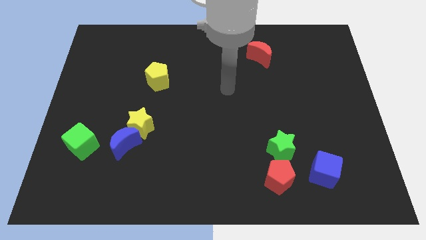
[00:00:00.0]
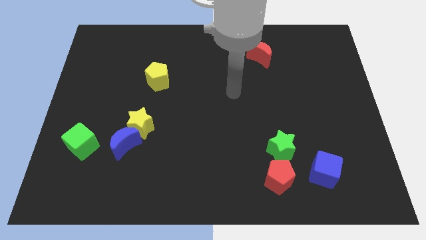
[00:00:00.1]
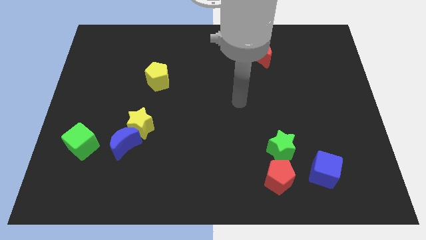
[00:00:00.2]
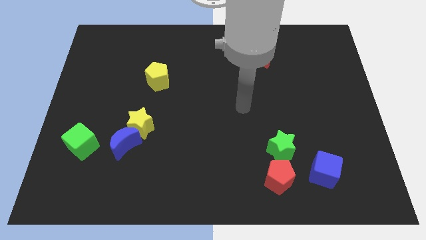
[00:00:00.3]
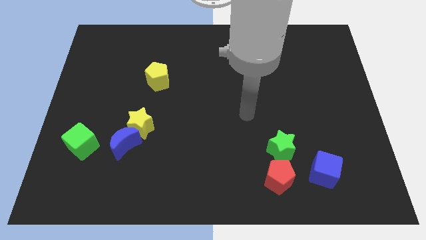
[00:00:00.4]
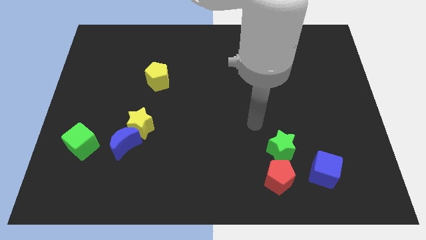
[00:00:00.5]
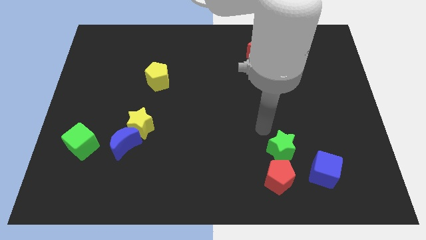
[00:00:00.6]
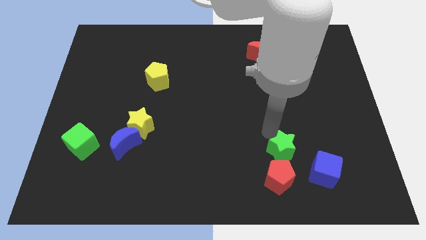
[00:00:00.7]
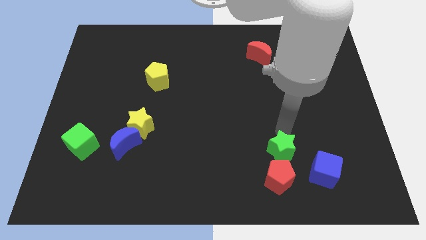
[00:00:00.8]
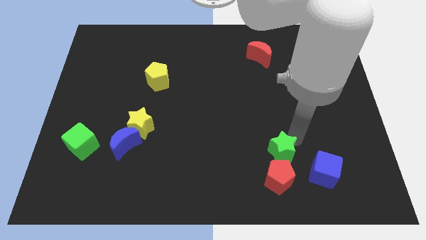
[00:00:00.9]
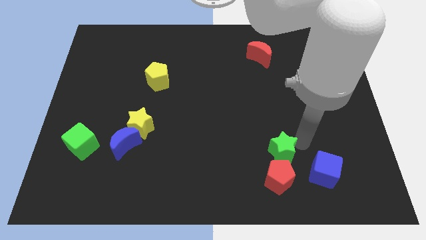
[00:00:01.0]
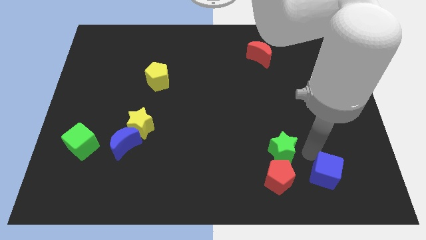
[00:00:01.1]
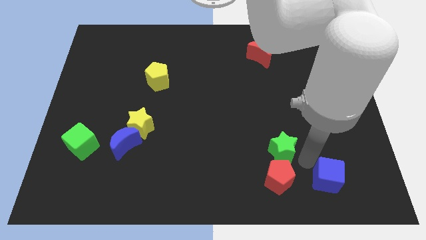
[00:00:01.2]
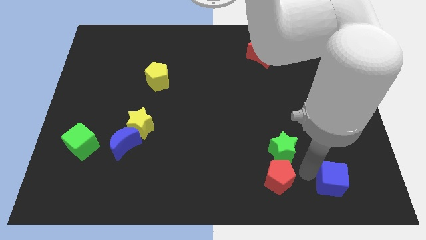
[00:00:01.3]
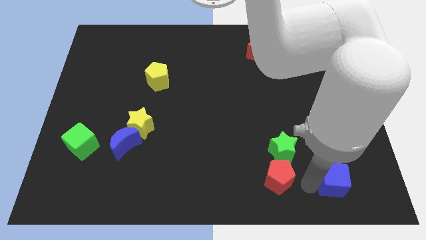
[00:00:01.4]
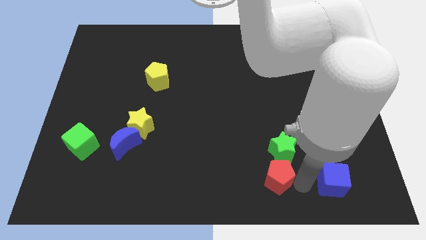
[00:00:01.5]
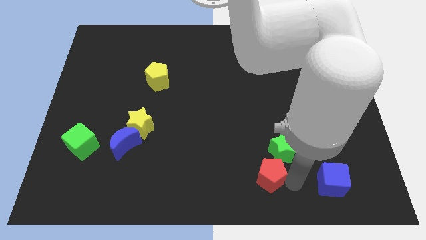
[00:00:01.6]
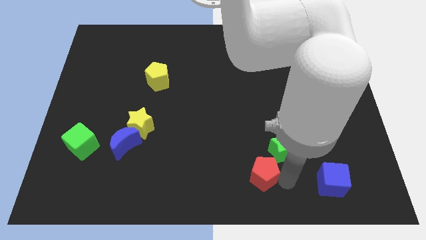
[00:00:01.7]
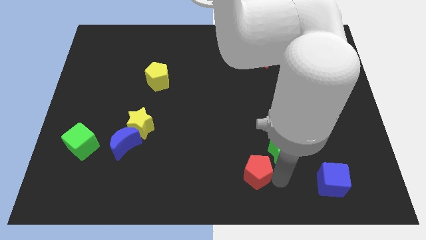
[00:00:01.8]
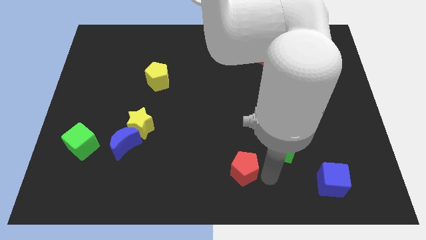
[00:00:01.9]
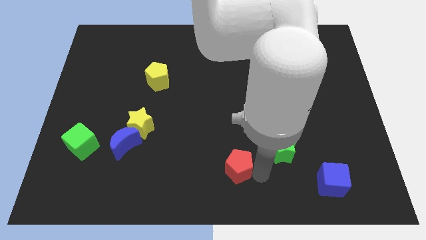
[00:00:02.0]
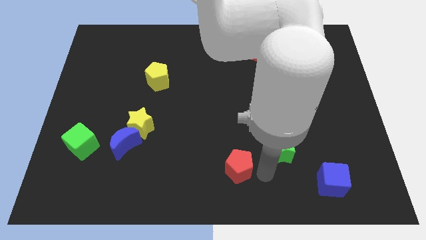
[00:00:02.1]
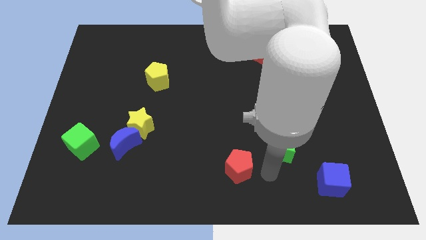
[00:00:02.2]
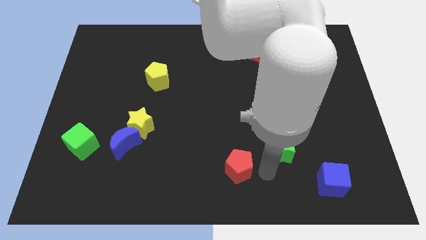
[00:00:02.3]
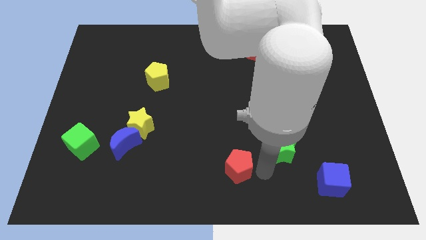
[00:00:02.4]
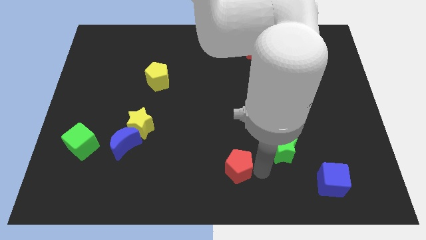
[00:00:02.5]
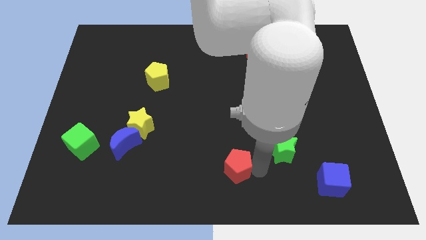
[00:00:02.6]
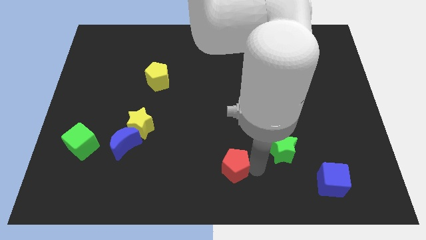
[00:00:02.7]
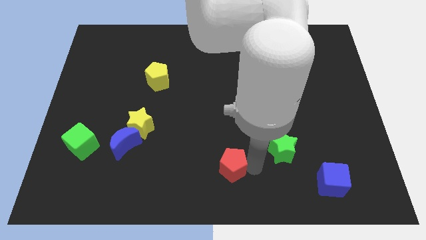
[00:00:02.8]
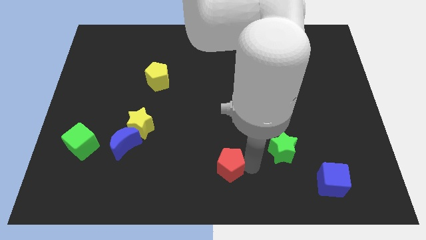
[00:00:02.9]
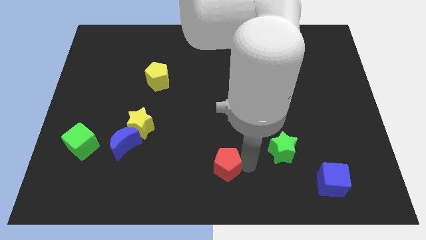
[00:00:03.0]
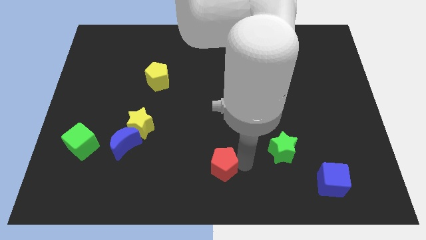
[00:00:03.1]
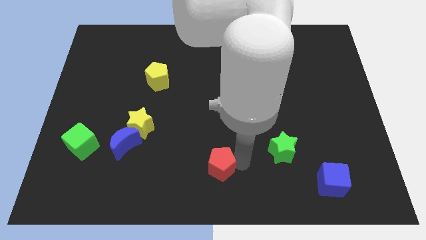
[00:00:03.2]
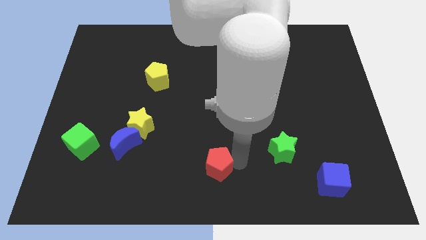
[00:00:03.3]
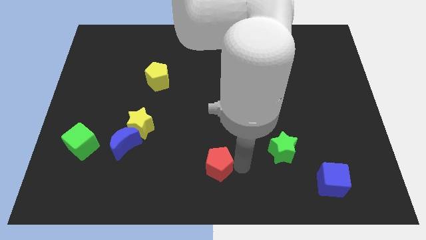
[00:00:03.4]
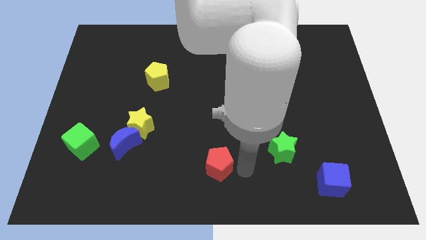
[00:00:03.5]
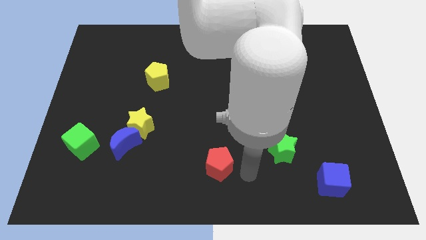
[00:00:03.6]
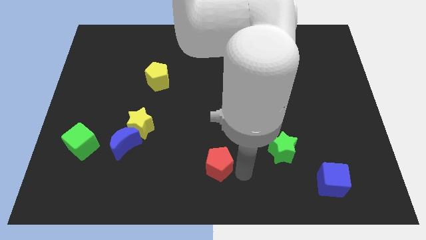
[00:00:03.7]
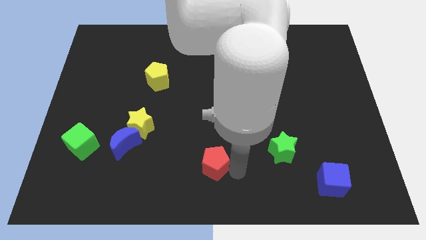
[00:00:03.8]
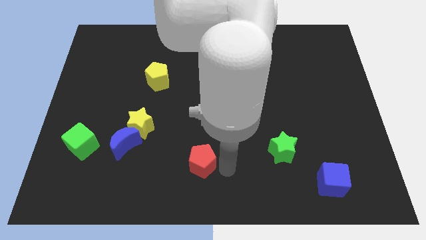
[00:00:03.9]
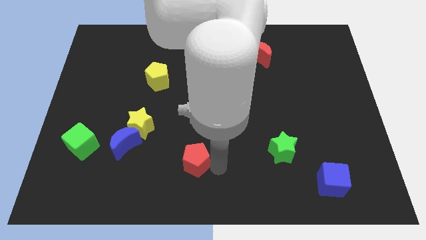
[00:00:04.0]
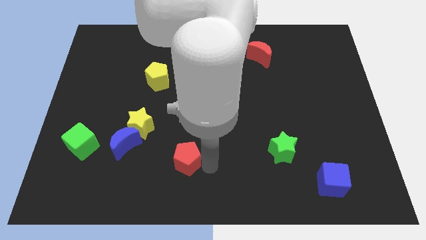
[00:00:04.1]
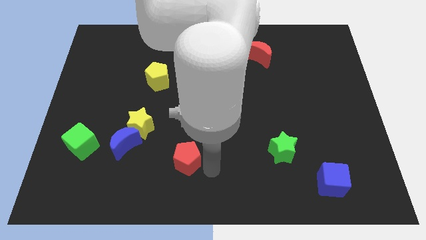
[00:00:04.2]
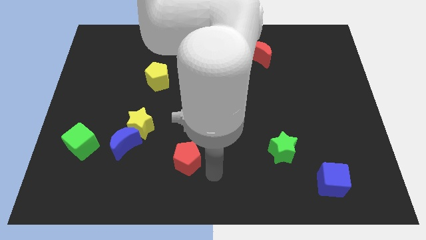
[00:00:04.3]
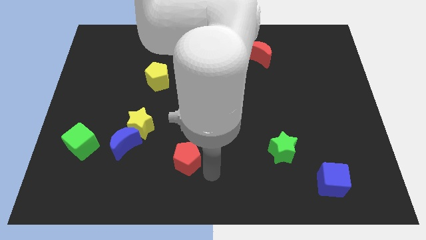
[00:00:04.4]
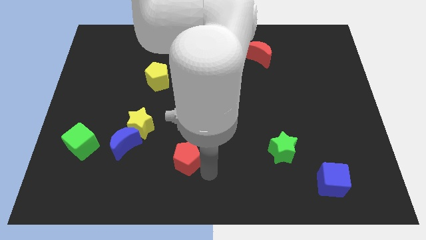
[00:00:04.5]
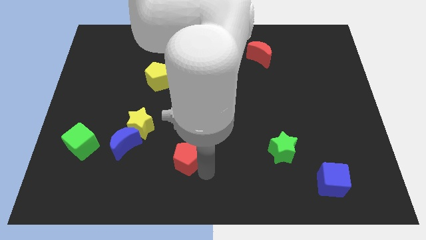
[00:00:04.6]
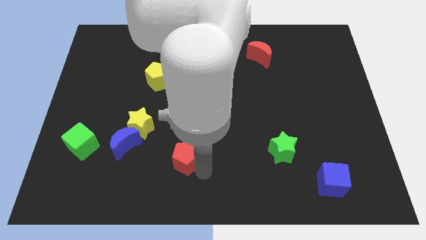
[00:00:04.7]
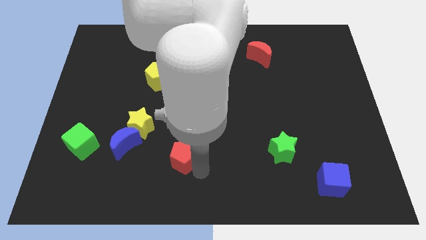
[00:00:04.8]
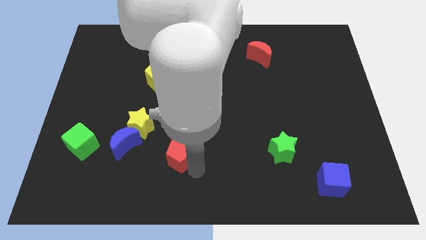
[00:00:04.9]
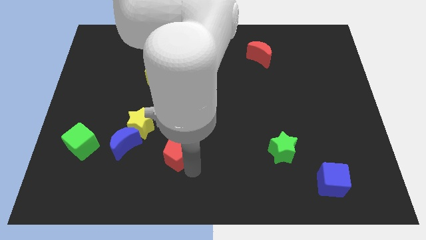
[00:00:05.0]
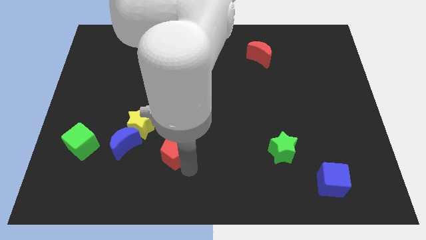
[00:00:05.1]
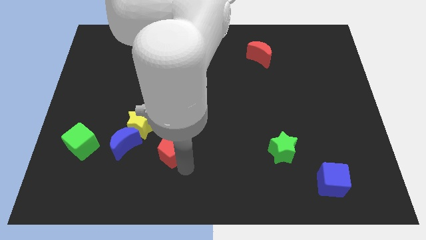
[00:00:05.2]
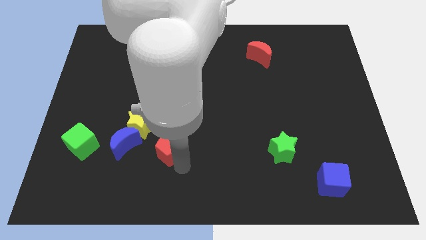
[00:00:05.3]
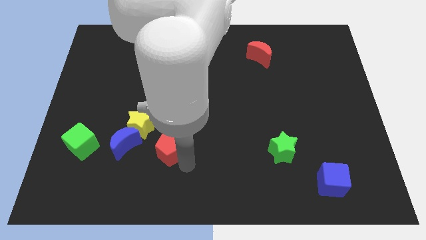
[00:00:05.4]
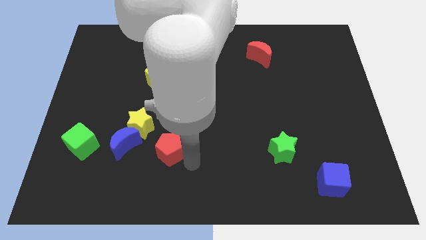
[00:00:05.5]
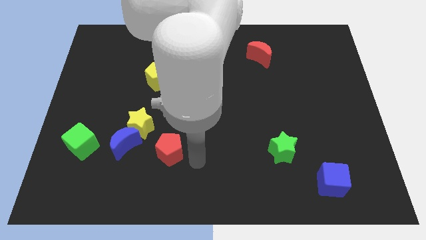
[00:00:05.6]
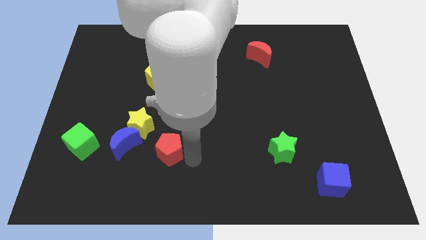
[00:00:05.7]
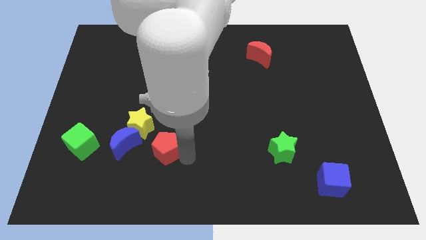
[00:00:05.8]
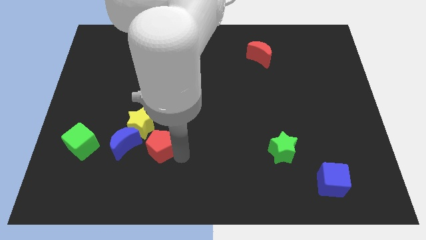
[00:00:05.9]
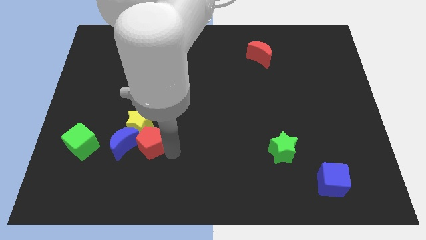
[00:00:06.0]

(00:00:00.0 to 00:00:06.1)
put the red pentagon next to the blue moon
